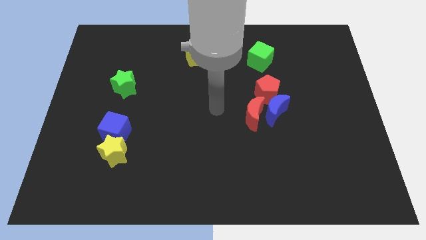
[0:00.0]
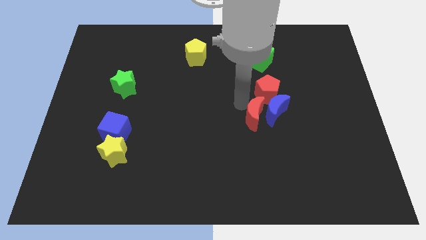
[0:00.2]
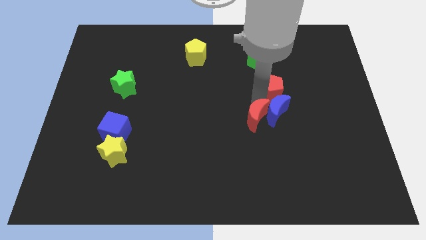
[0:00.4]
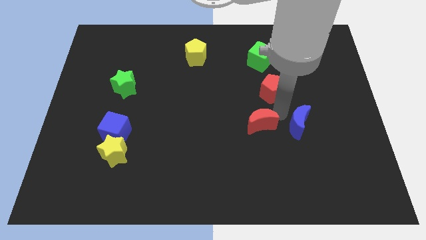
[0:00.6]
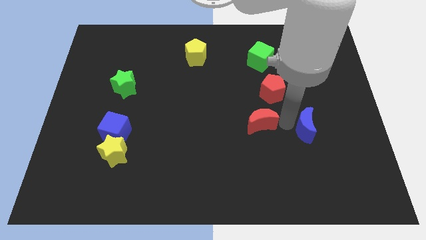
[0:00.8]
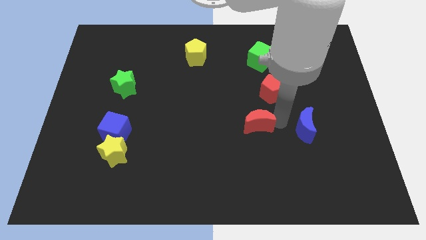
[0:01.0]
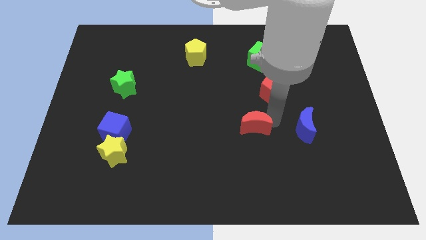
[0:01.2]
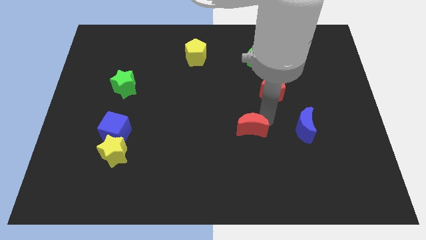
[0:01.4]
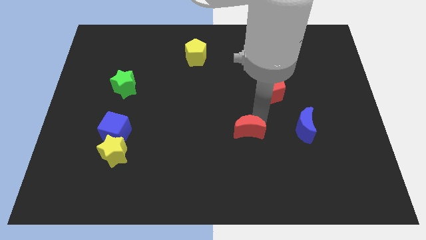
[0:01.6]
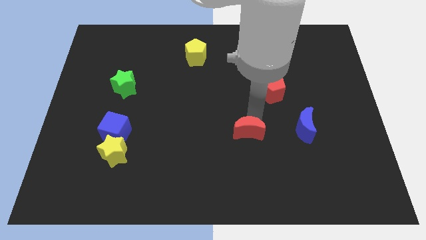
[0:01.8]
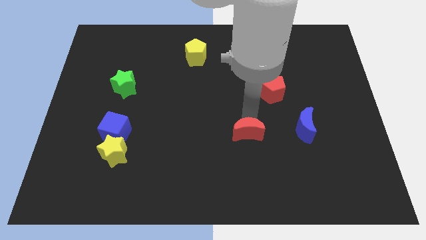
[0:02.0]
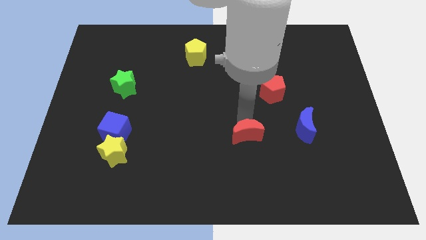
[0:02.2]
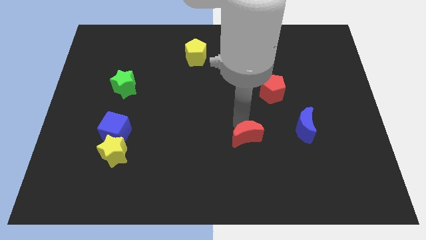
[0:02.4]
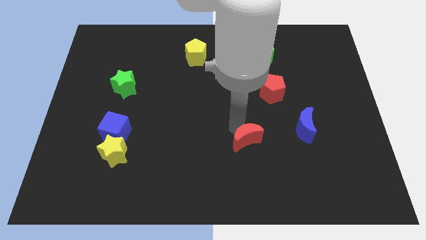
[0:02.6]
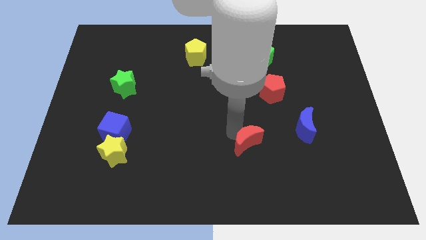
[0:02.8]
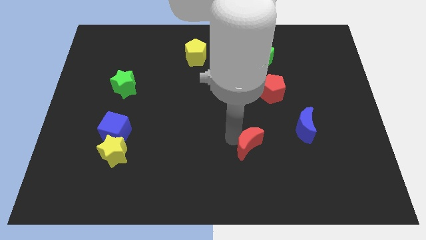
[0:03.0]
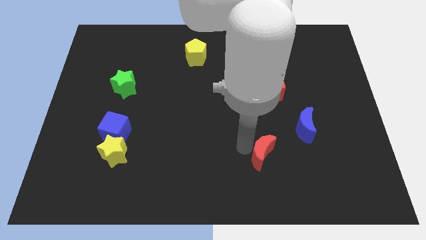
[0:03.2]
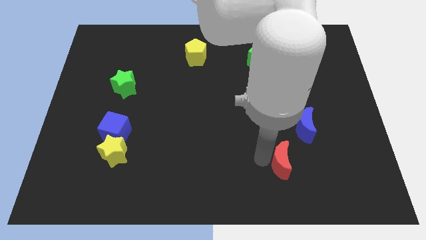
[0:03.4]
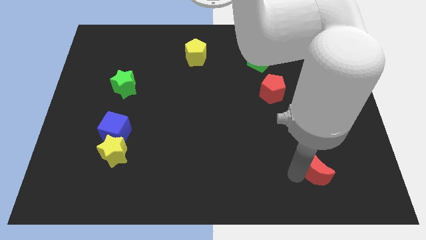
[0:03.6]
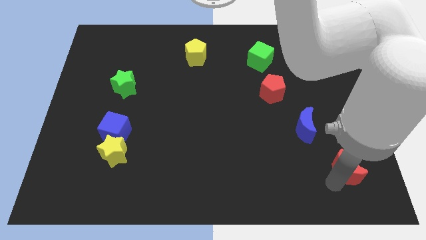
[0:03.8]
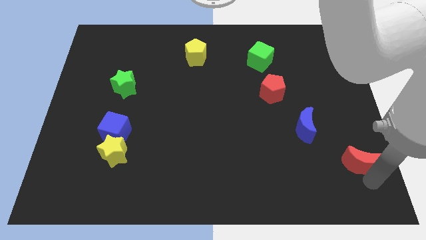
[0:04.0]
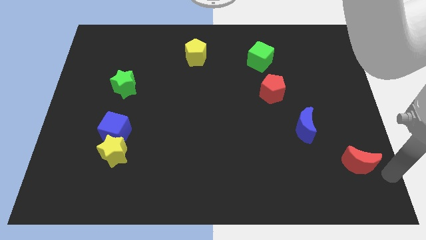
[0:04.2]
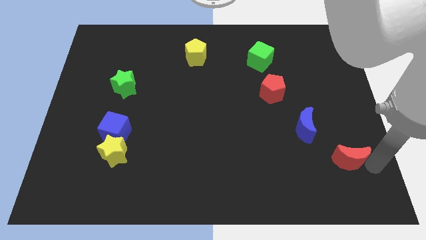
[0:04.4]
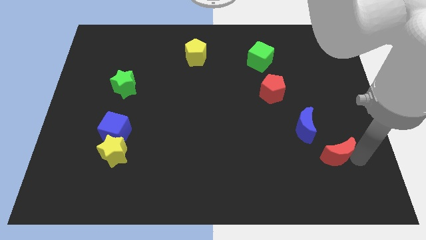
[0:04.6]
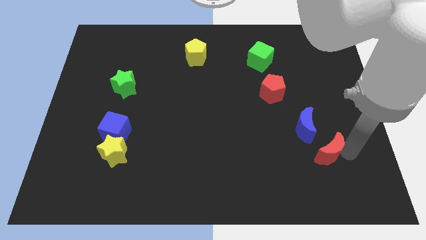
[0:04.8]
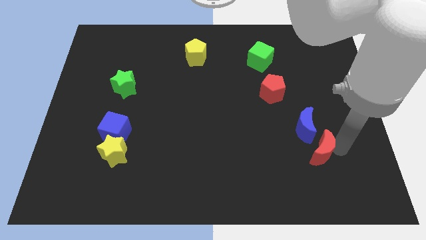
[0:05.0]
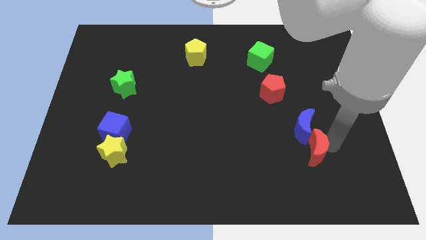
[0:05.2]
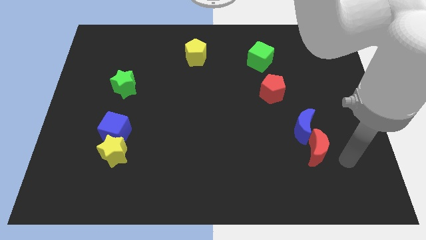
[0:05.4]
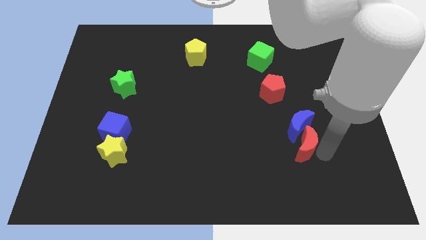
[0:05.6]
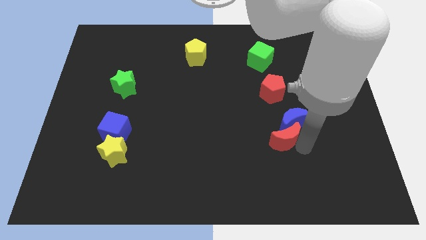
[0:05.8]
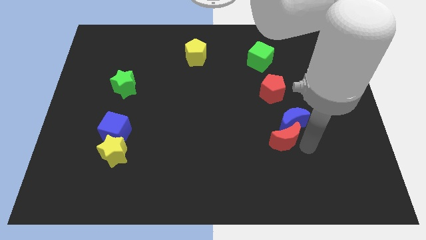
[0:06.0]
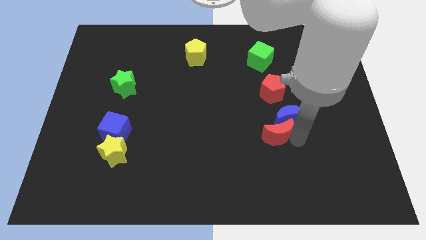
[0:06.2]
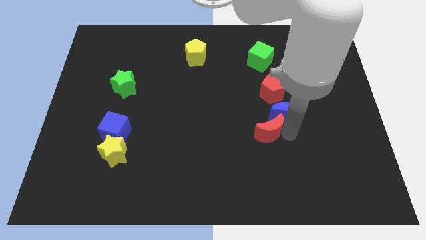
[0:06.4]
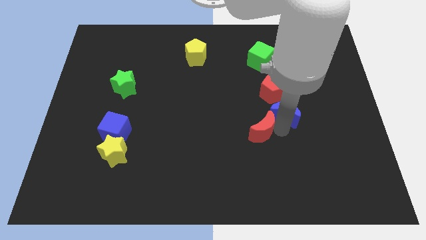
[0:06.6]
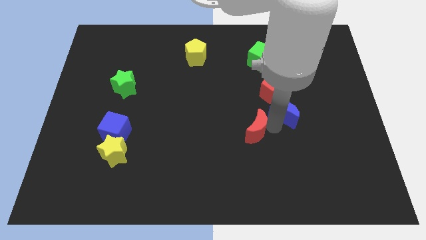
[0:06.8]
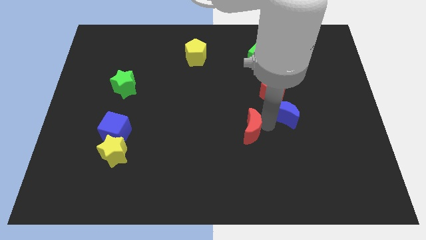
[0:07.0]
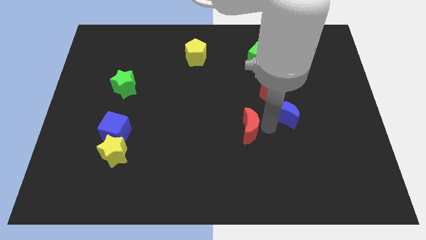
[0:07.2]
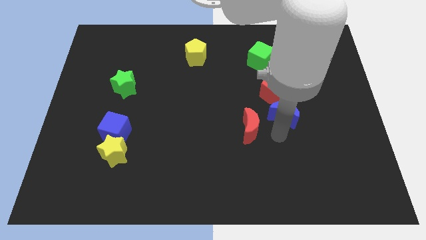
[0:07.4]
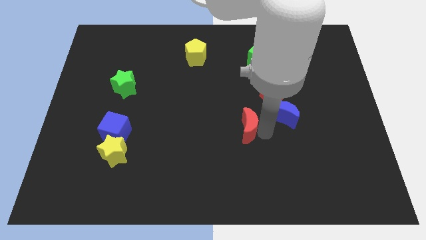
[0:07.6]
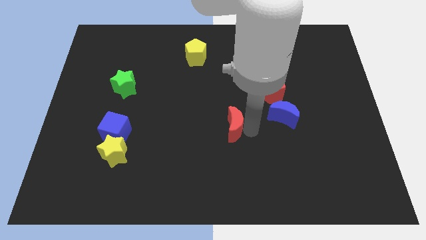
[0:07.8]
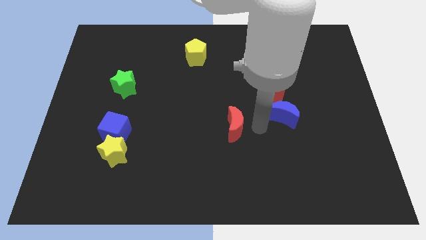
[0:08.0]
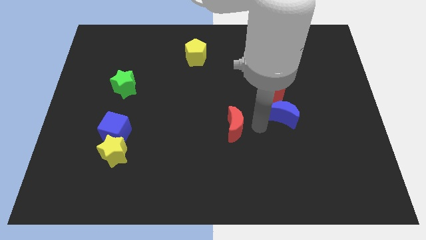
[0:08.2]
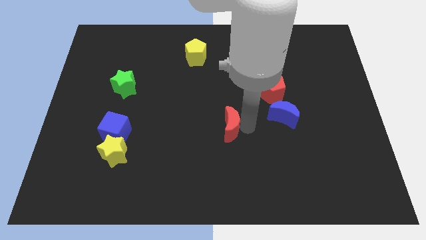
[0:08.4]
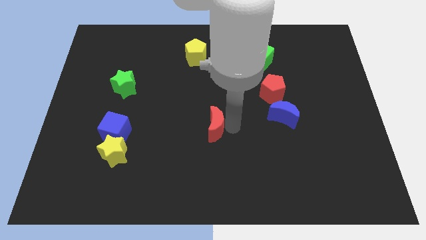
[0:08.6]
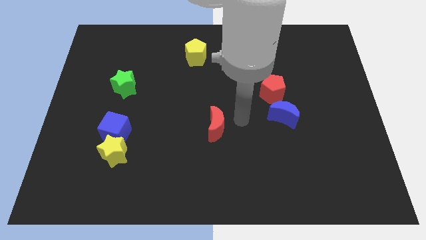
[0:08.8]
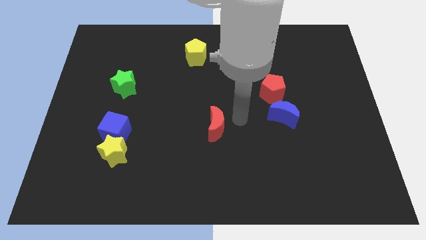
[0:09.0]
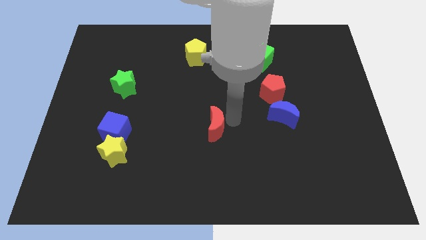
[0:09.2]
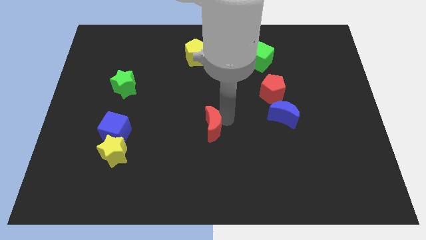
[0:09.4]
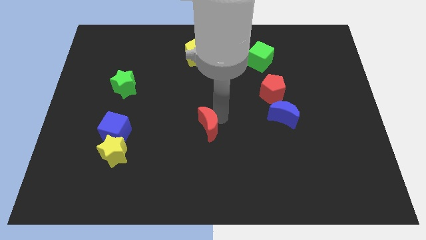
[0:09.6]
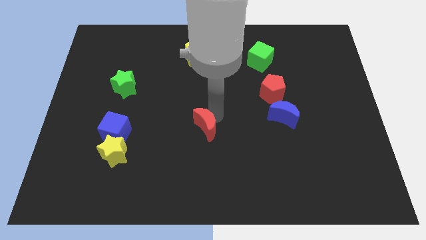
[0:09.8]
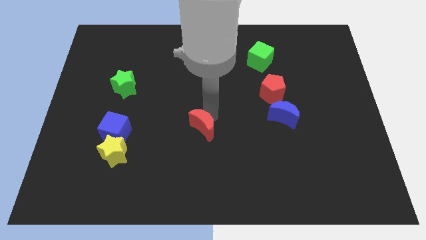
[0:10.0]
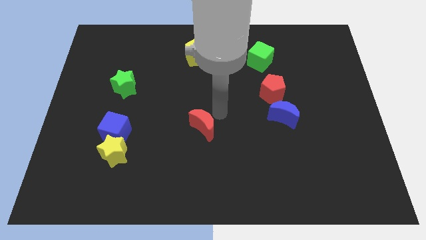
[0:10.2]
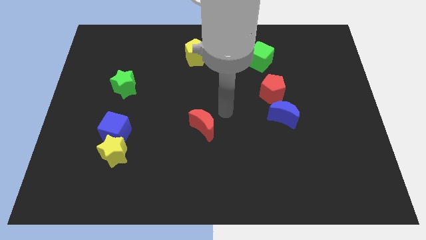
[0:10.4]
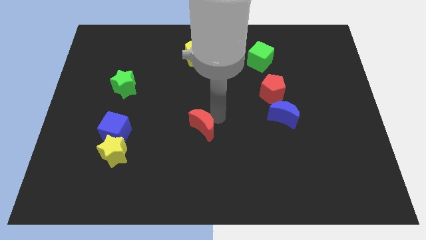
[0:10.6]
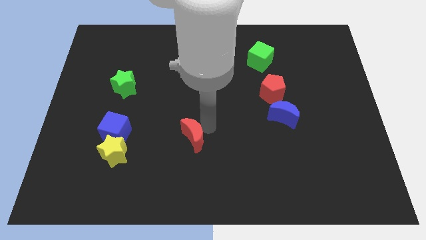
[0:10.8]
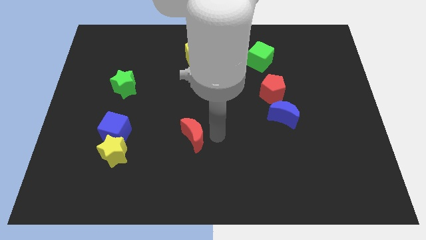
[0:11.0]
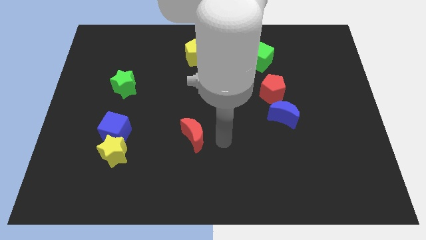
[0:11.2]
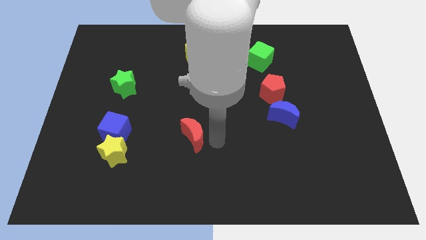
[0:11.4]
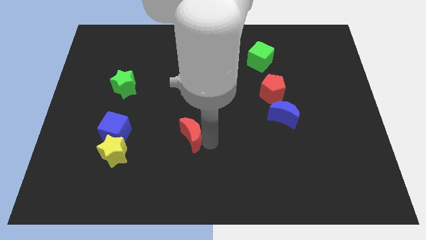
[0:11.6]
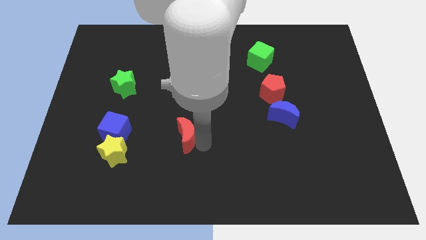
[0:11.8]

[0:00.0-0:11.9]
put the red moon to the right side of the blue cube

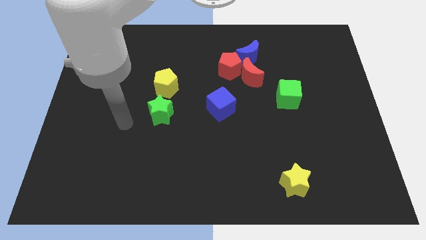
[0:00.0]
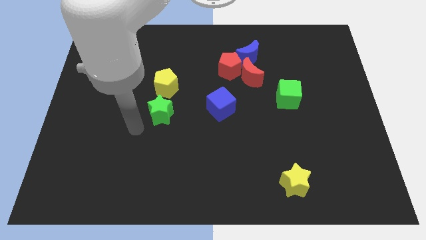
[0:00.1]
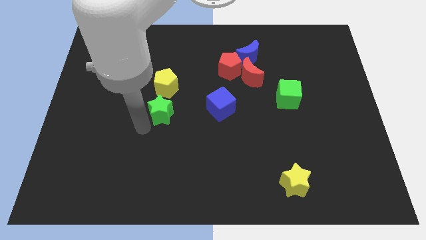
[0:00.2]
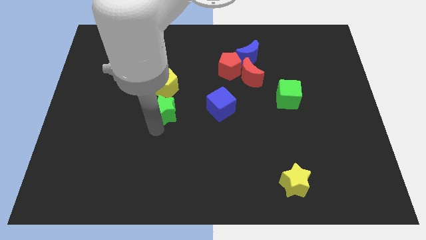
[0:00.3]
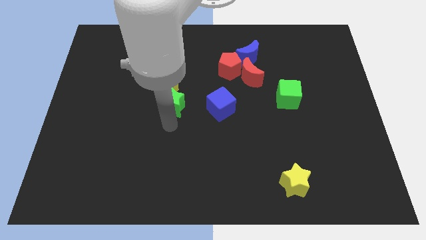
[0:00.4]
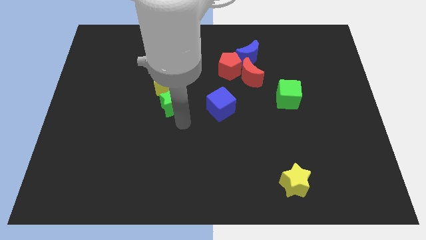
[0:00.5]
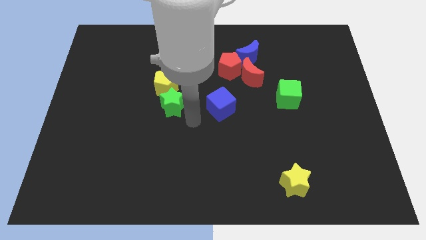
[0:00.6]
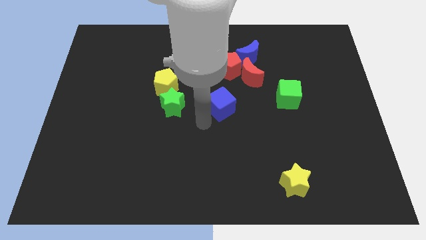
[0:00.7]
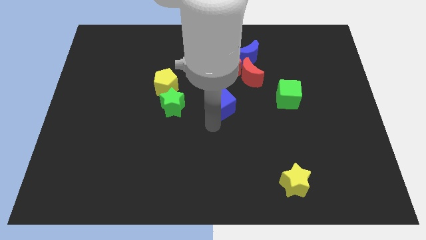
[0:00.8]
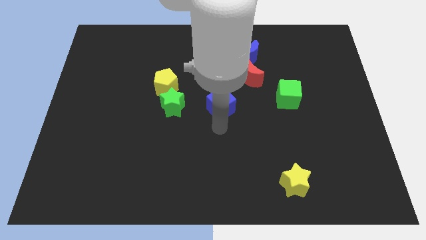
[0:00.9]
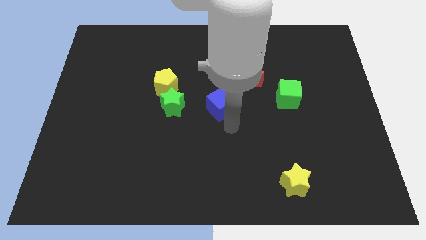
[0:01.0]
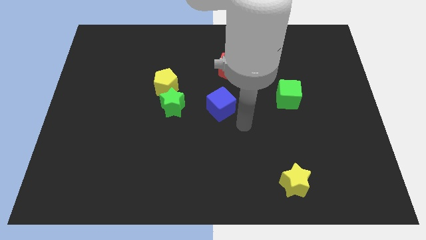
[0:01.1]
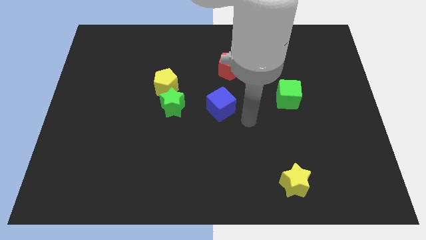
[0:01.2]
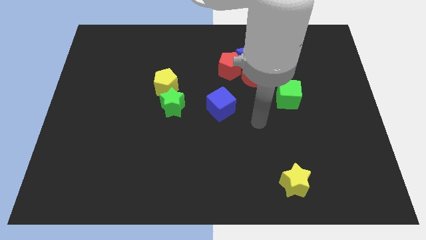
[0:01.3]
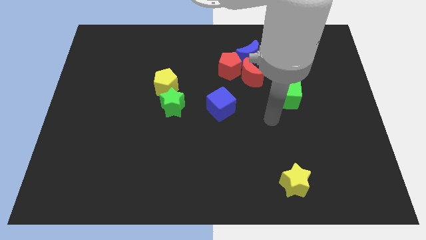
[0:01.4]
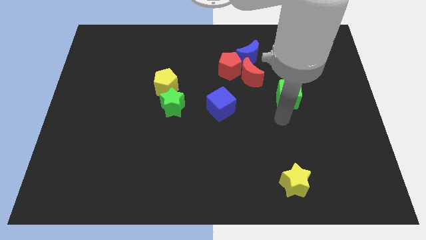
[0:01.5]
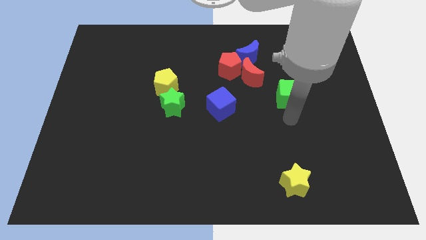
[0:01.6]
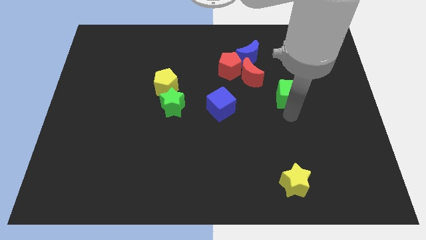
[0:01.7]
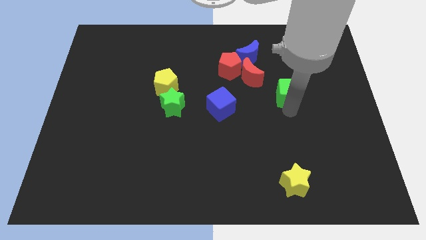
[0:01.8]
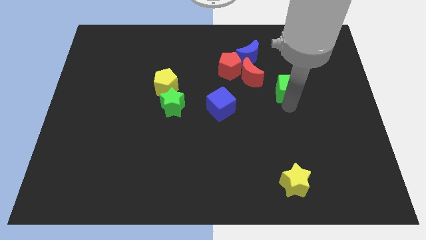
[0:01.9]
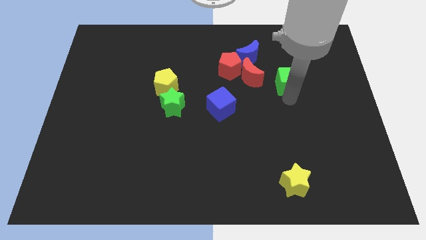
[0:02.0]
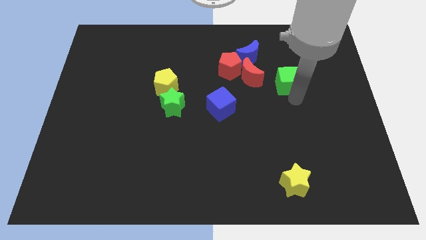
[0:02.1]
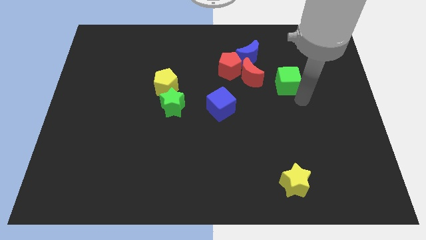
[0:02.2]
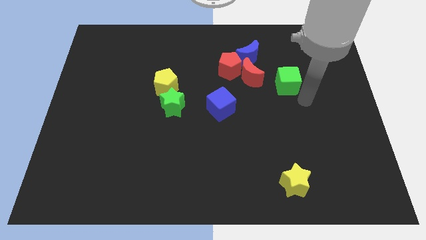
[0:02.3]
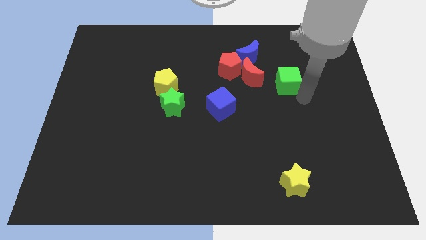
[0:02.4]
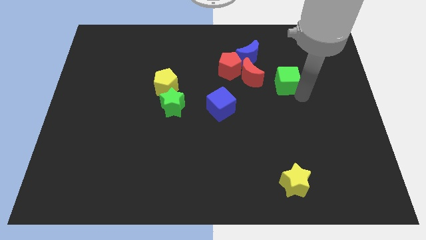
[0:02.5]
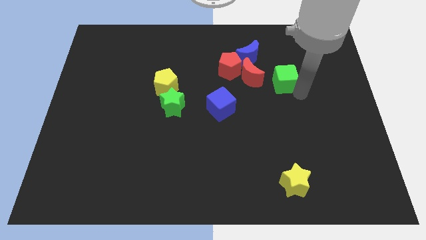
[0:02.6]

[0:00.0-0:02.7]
put the green cube to the right side of the red pentagon
